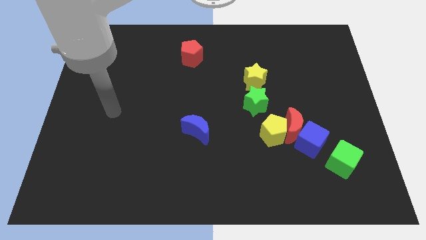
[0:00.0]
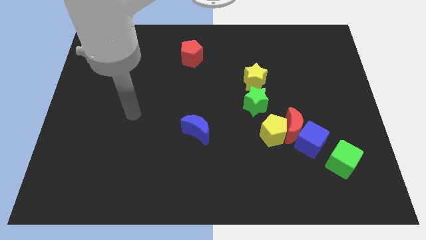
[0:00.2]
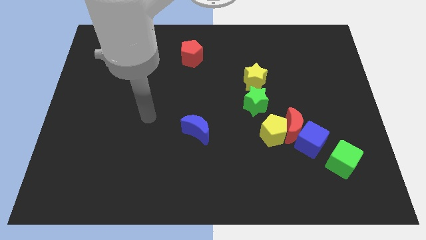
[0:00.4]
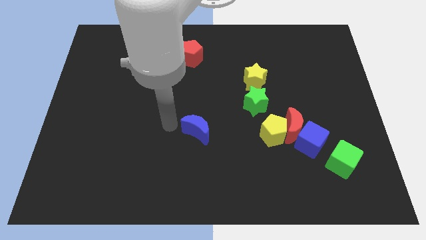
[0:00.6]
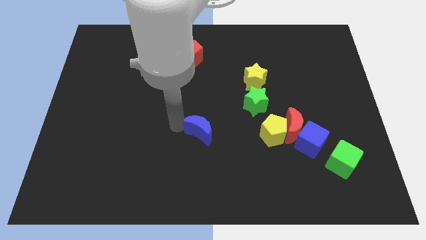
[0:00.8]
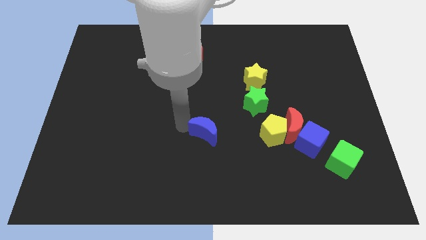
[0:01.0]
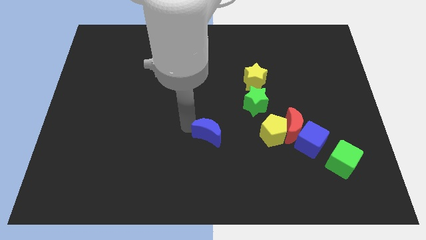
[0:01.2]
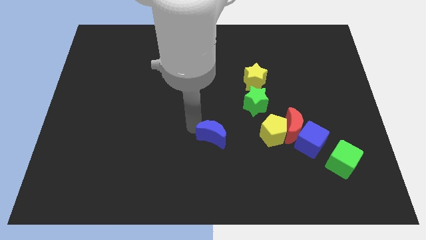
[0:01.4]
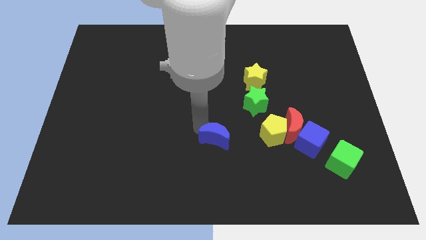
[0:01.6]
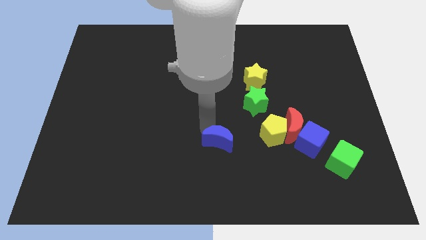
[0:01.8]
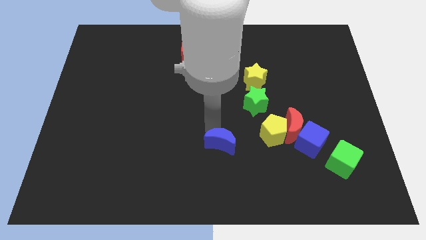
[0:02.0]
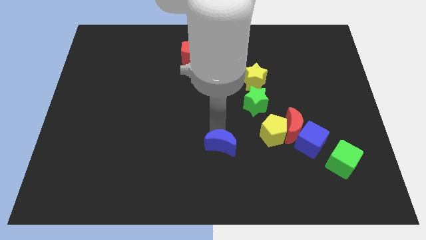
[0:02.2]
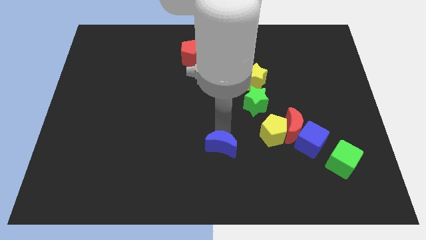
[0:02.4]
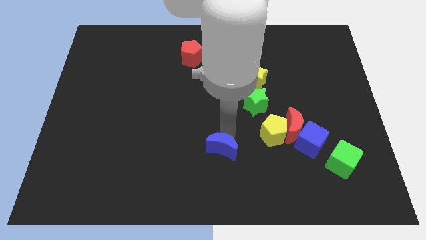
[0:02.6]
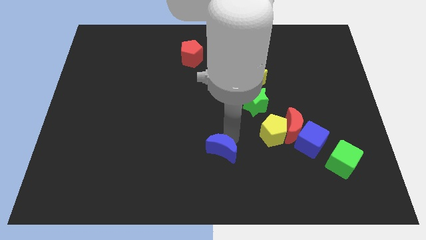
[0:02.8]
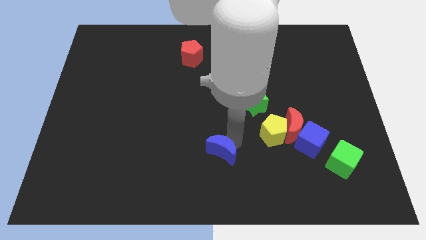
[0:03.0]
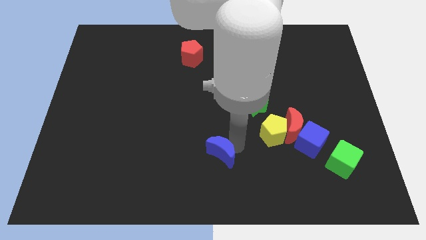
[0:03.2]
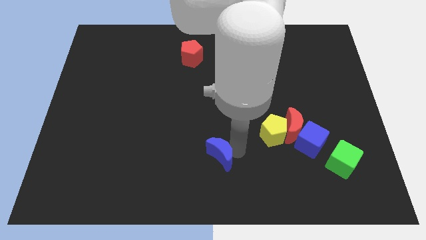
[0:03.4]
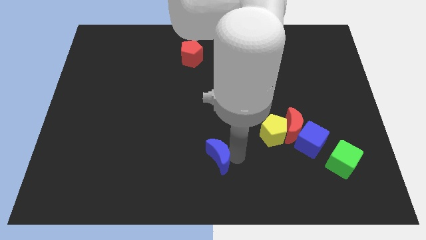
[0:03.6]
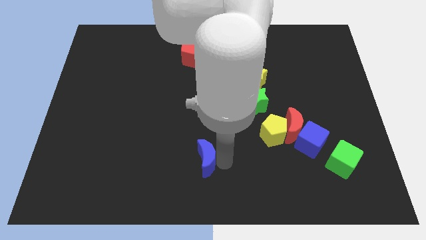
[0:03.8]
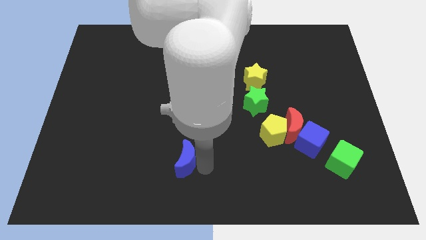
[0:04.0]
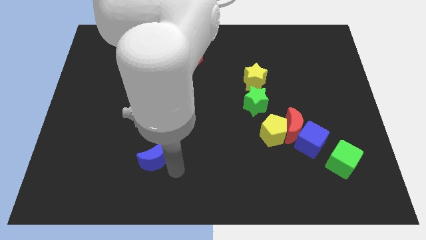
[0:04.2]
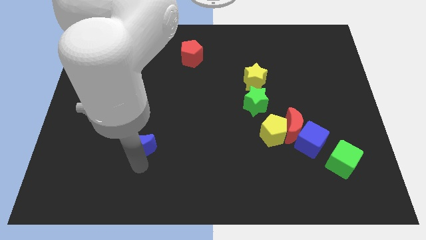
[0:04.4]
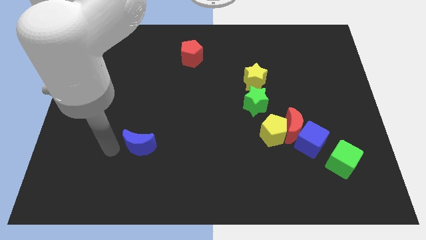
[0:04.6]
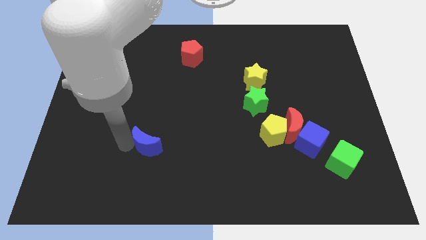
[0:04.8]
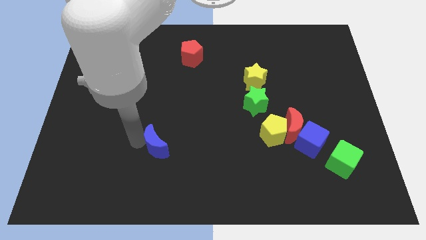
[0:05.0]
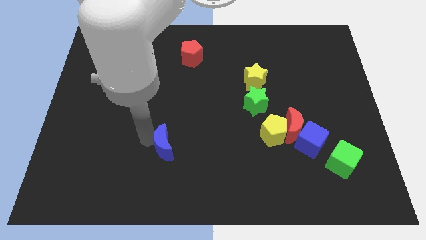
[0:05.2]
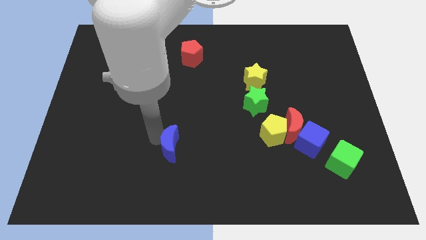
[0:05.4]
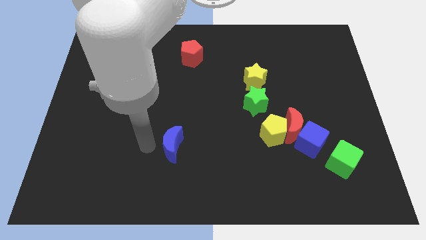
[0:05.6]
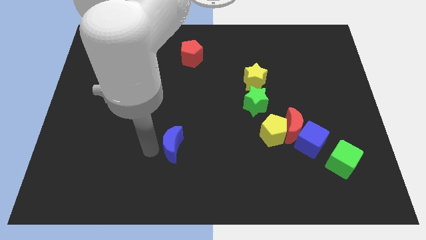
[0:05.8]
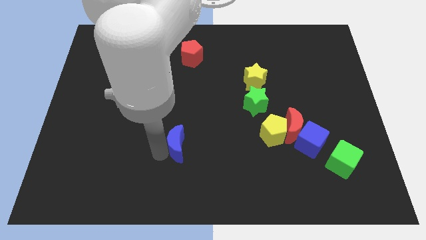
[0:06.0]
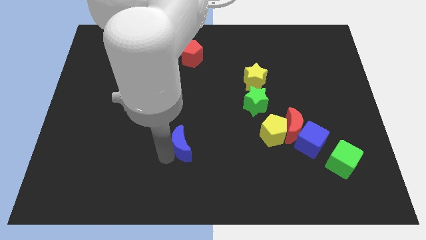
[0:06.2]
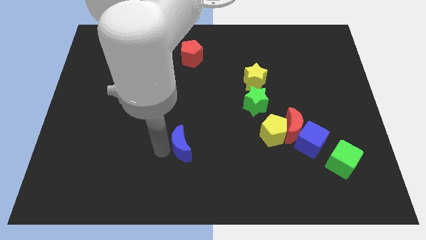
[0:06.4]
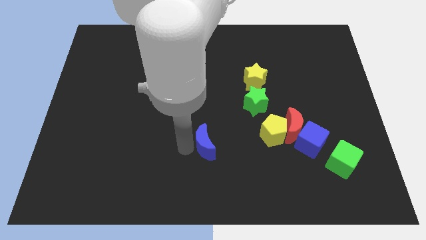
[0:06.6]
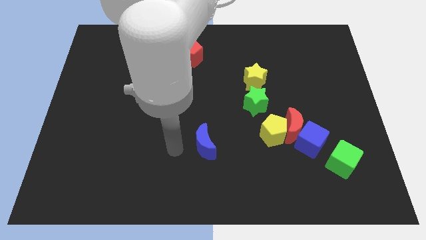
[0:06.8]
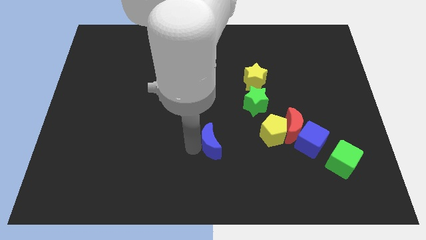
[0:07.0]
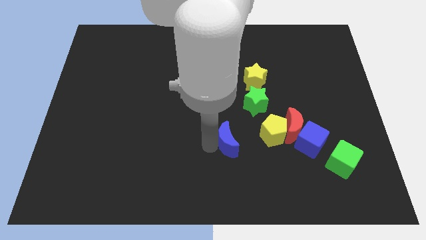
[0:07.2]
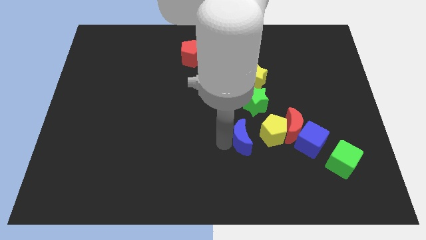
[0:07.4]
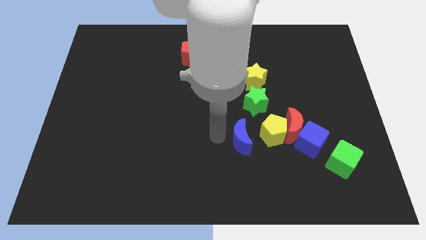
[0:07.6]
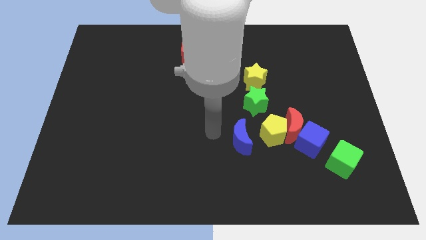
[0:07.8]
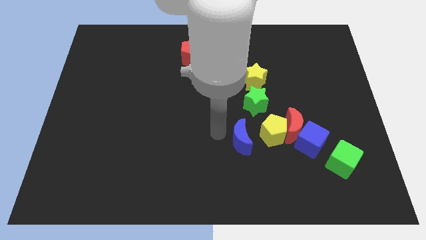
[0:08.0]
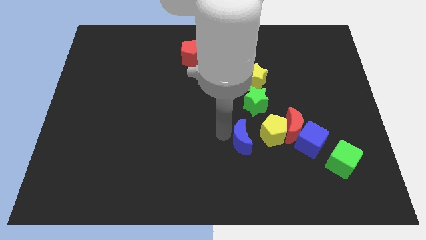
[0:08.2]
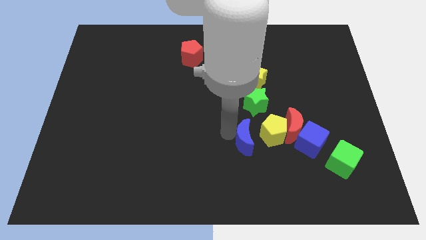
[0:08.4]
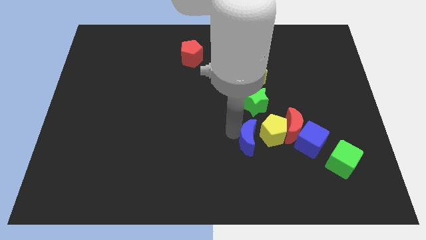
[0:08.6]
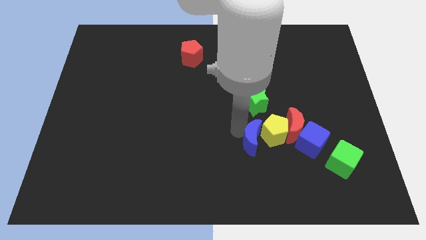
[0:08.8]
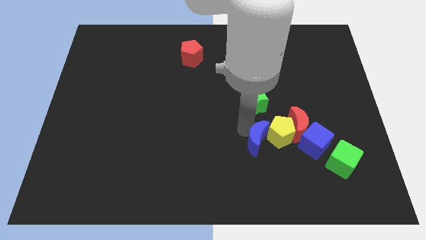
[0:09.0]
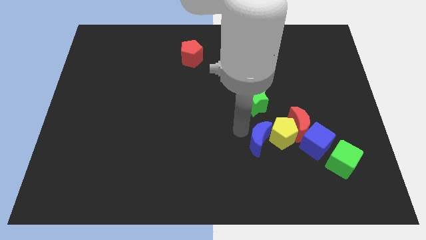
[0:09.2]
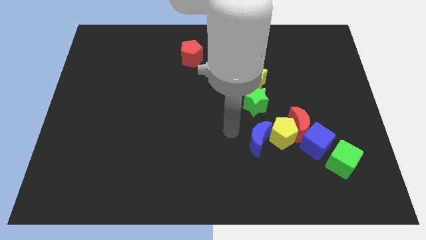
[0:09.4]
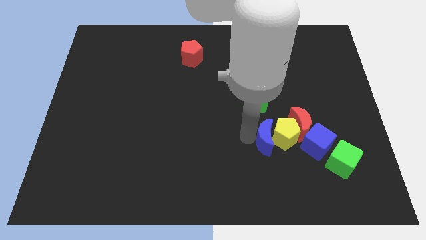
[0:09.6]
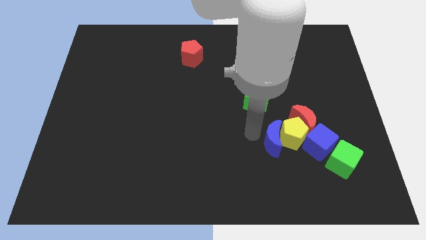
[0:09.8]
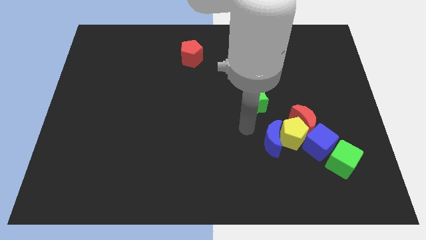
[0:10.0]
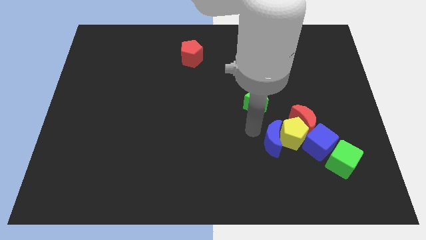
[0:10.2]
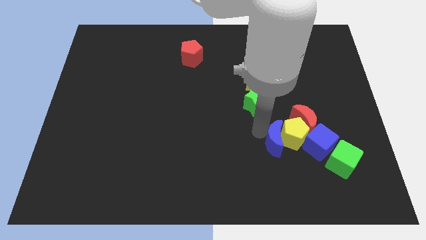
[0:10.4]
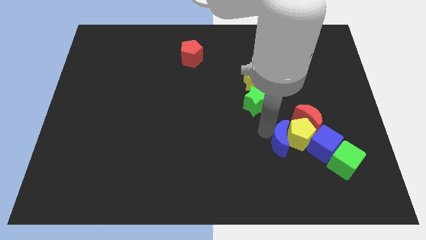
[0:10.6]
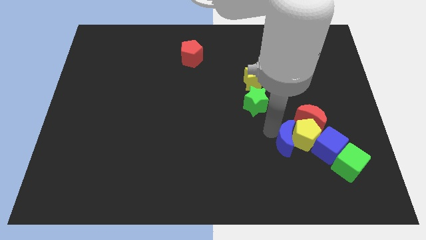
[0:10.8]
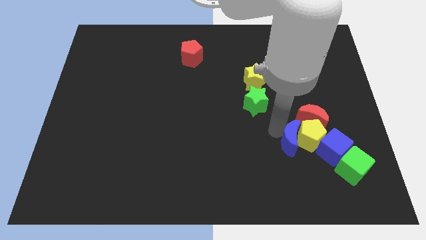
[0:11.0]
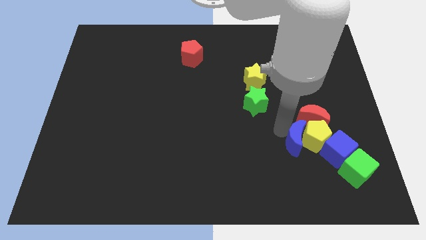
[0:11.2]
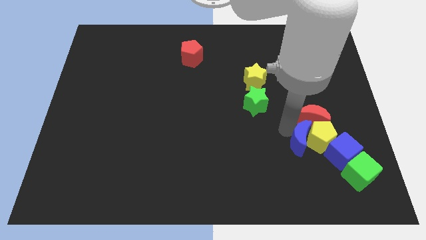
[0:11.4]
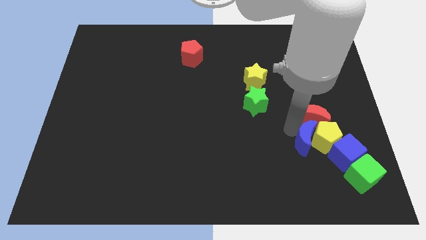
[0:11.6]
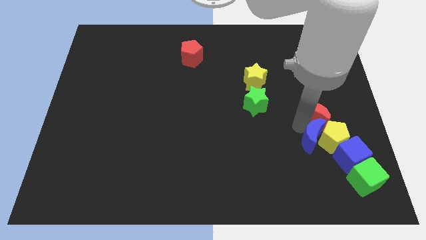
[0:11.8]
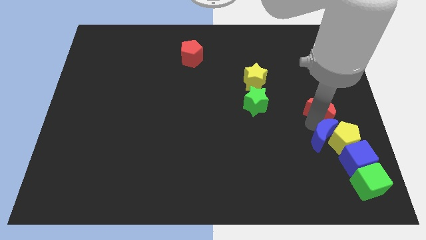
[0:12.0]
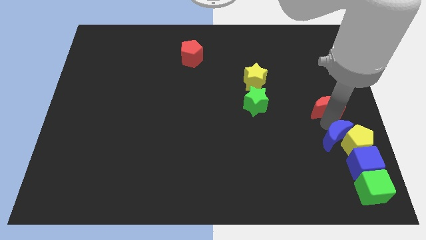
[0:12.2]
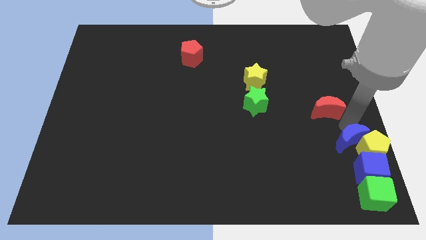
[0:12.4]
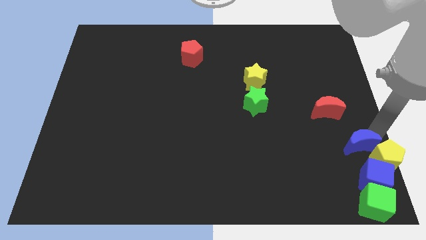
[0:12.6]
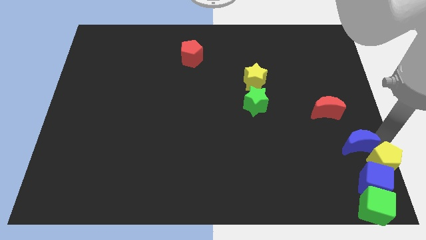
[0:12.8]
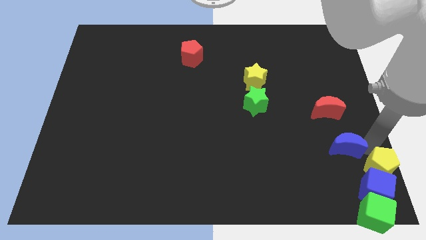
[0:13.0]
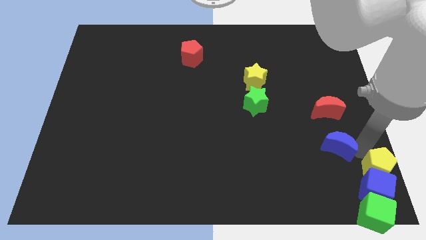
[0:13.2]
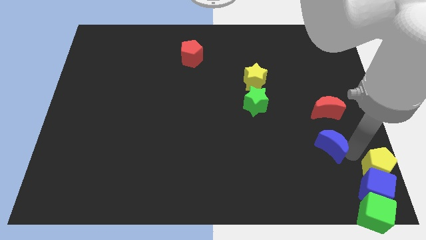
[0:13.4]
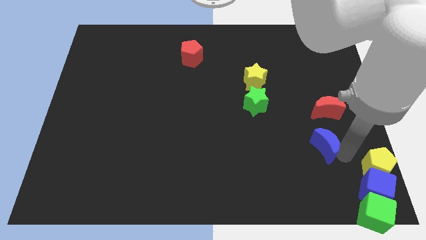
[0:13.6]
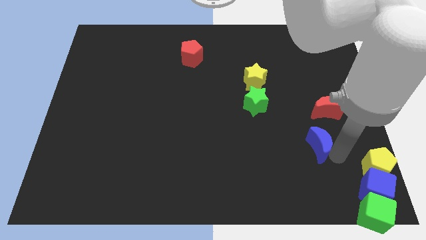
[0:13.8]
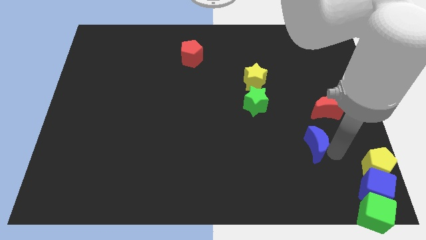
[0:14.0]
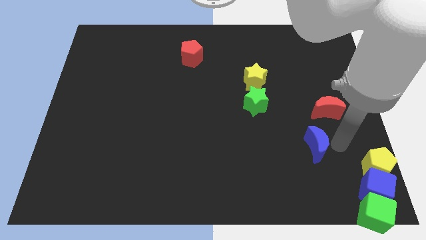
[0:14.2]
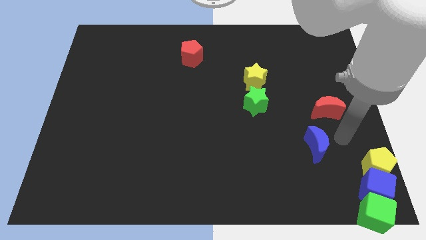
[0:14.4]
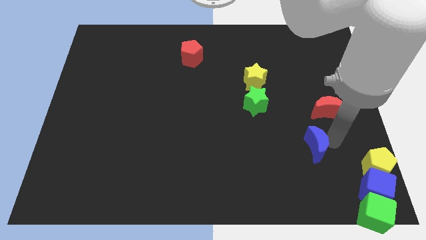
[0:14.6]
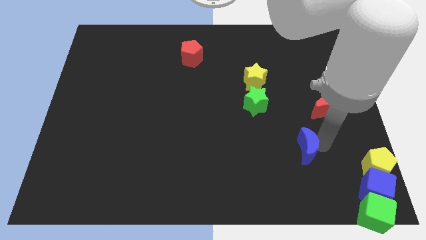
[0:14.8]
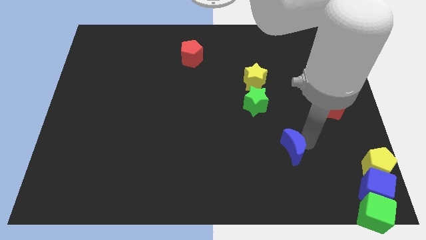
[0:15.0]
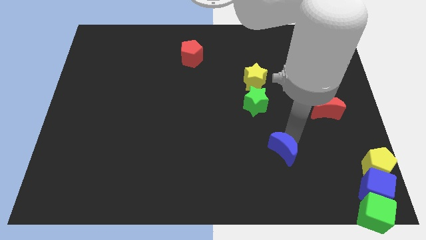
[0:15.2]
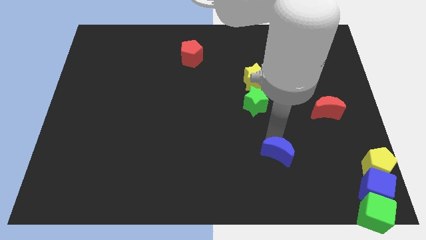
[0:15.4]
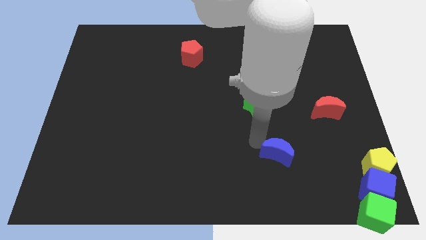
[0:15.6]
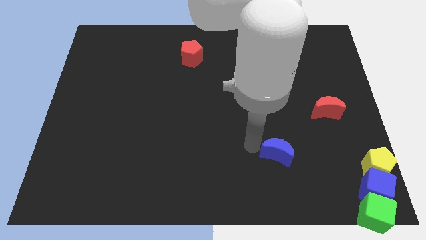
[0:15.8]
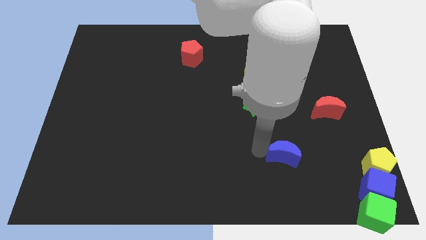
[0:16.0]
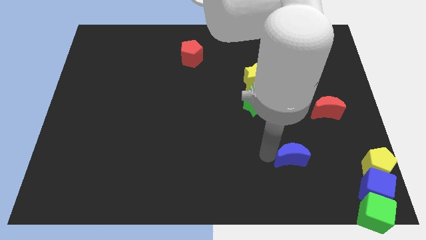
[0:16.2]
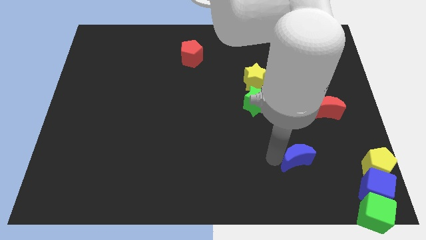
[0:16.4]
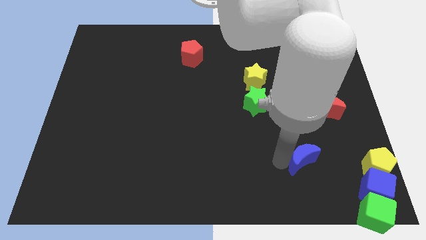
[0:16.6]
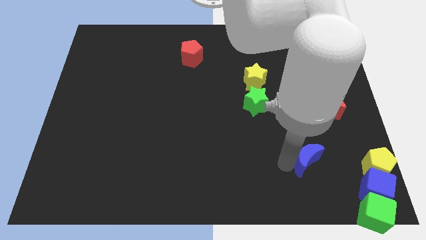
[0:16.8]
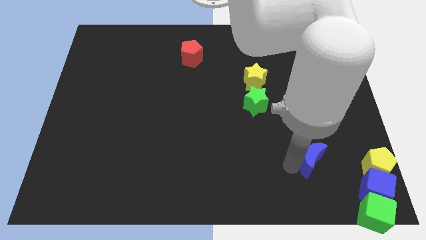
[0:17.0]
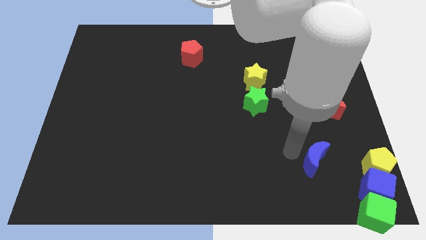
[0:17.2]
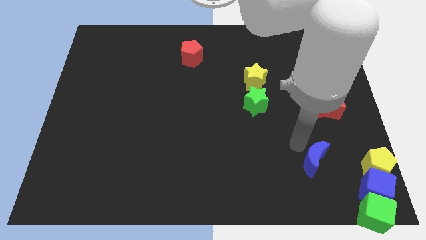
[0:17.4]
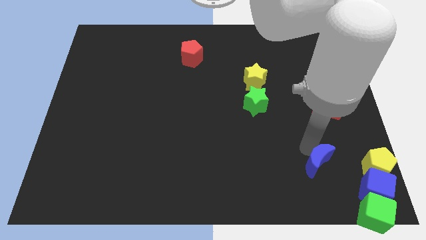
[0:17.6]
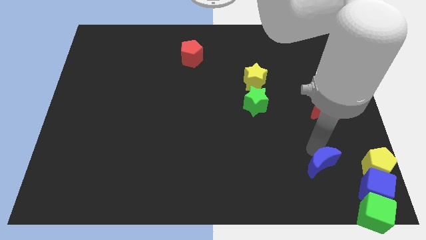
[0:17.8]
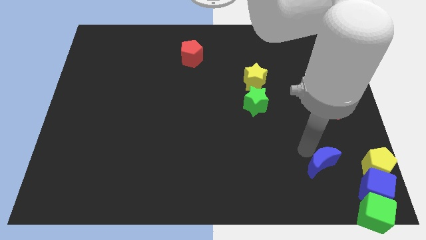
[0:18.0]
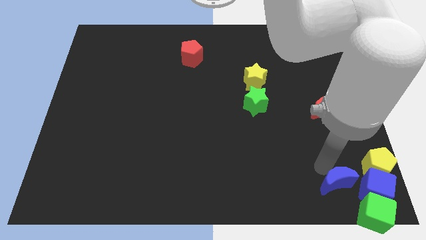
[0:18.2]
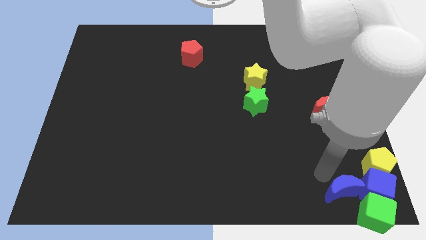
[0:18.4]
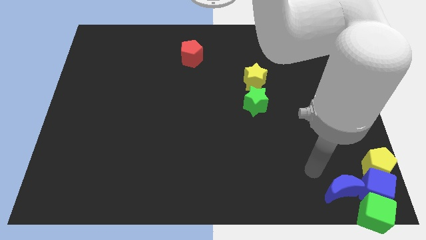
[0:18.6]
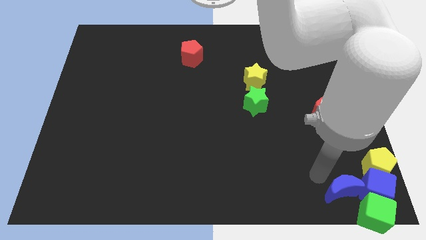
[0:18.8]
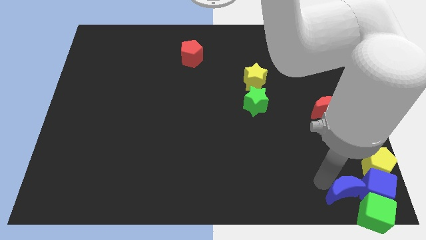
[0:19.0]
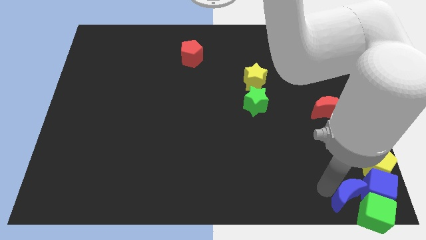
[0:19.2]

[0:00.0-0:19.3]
move the blue moon towards the green cube
